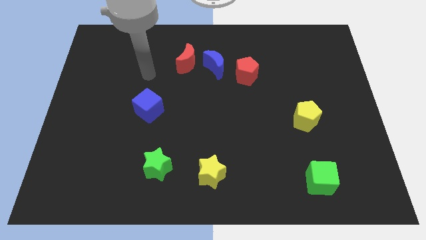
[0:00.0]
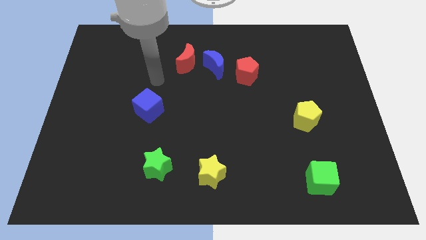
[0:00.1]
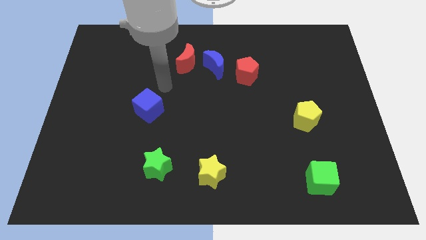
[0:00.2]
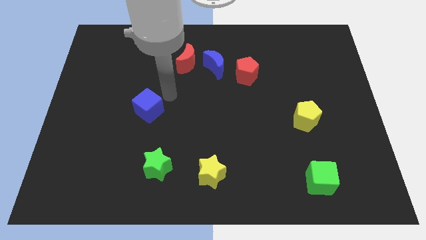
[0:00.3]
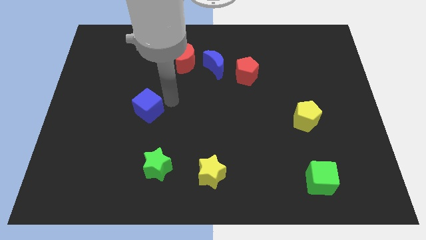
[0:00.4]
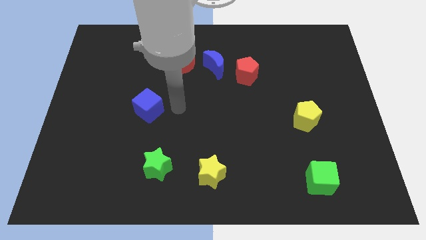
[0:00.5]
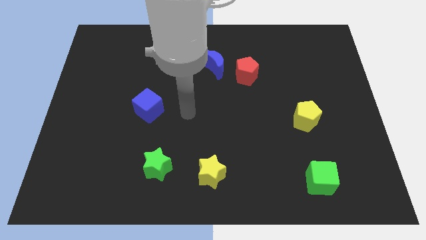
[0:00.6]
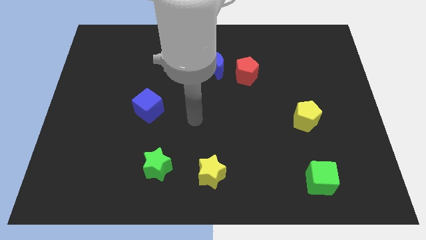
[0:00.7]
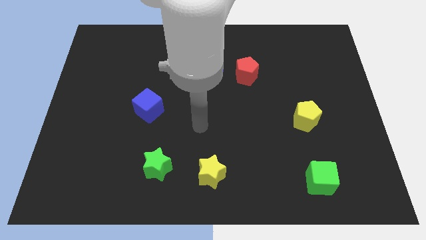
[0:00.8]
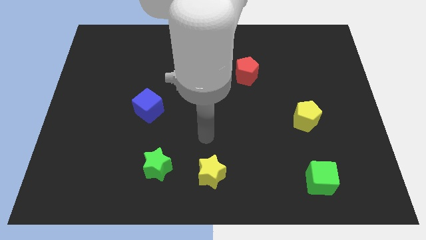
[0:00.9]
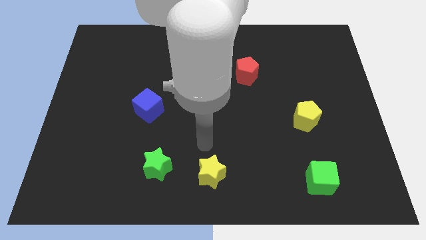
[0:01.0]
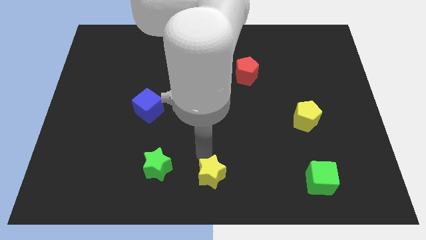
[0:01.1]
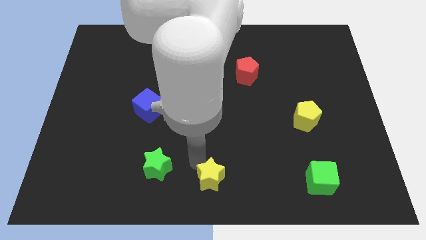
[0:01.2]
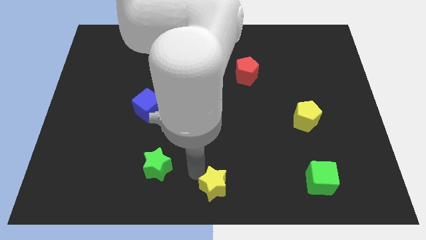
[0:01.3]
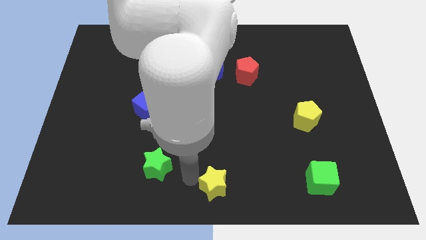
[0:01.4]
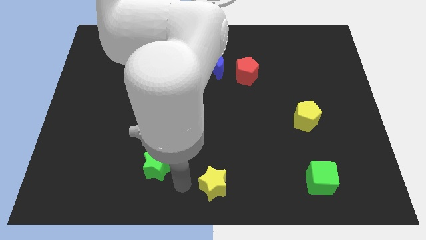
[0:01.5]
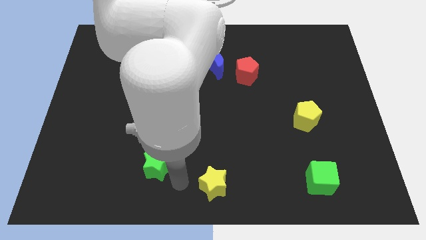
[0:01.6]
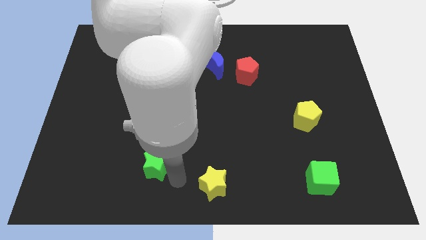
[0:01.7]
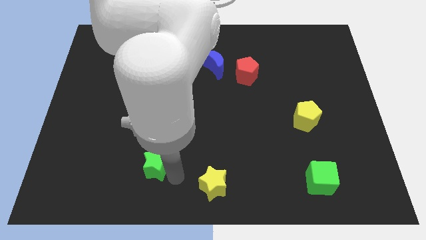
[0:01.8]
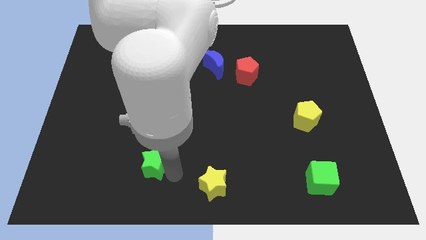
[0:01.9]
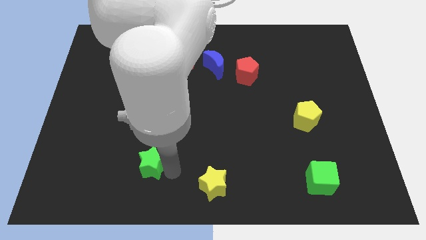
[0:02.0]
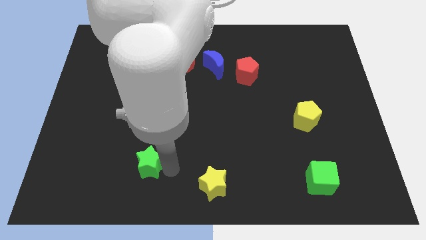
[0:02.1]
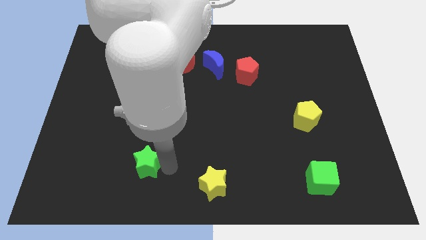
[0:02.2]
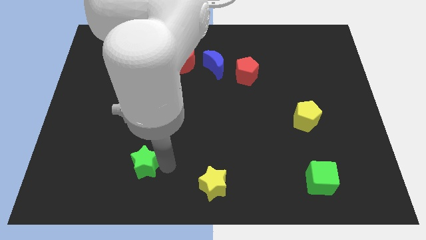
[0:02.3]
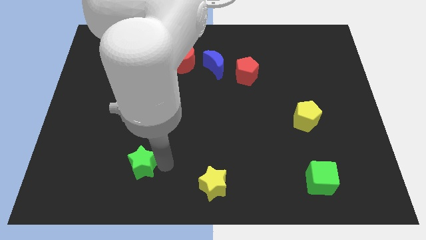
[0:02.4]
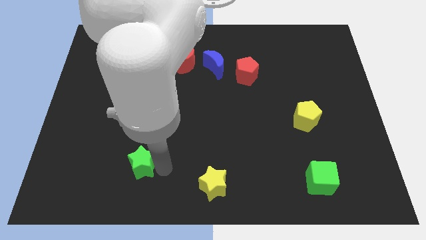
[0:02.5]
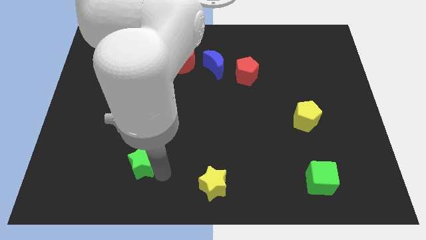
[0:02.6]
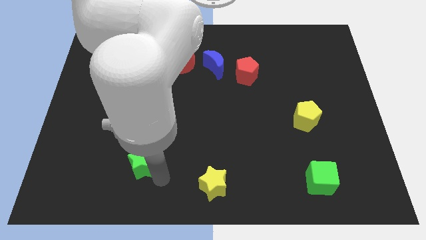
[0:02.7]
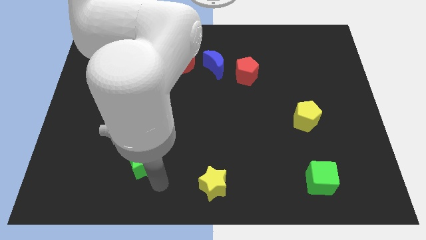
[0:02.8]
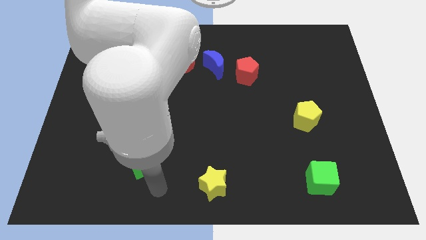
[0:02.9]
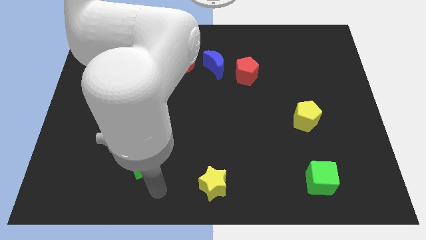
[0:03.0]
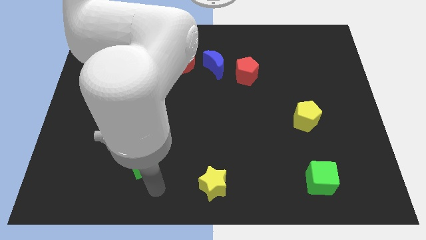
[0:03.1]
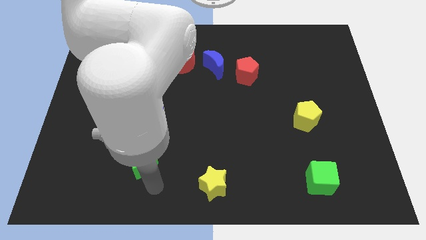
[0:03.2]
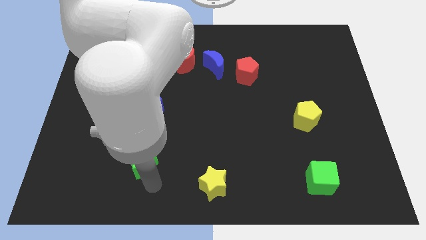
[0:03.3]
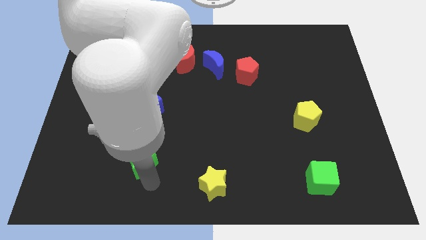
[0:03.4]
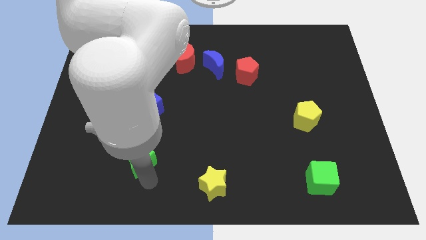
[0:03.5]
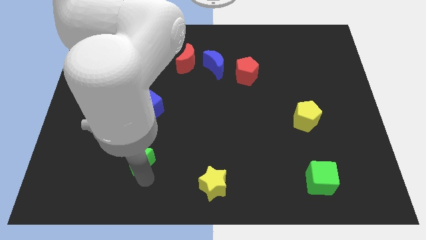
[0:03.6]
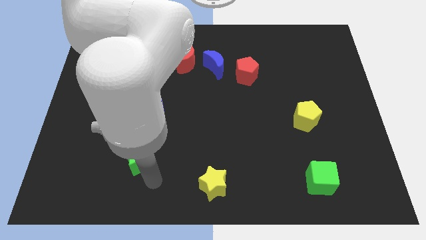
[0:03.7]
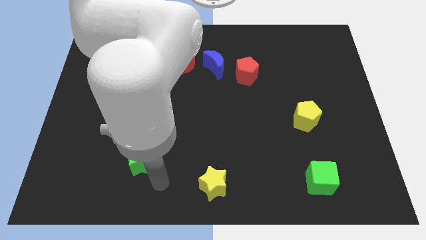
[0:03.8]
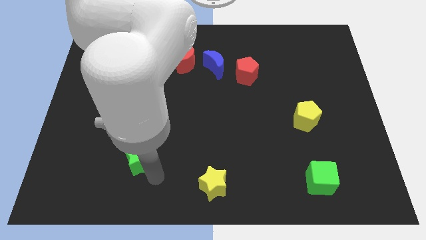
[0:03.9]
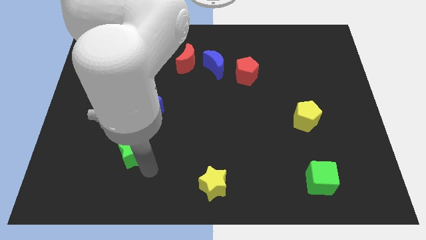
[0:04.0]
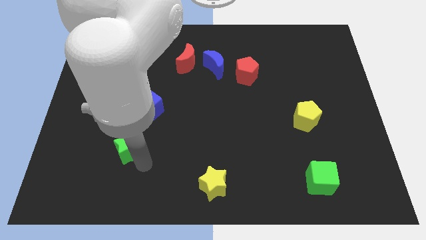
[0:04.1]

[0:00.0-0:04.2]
slightly slide the green star diagonally upwards and left

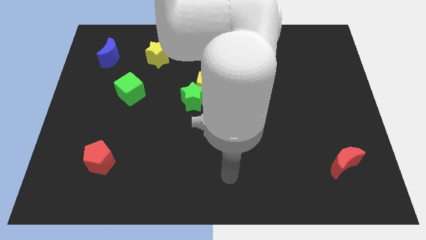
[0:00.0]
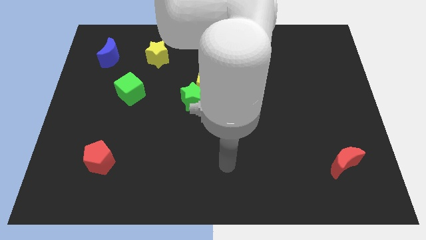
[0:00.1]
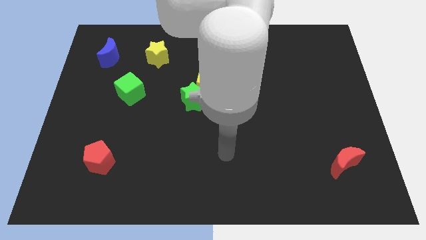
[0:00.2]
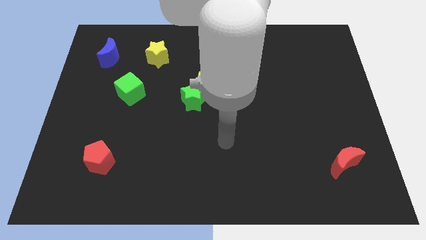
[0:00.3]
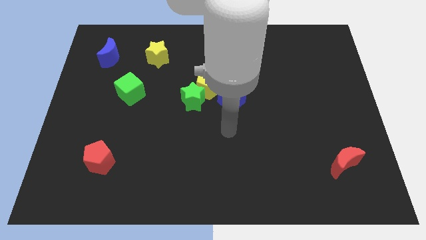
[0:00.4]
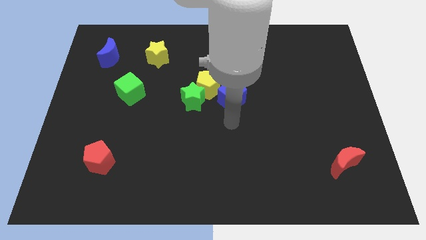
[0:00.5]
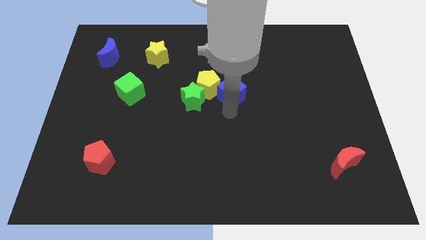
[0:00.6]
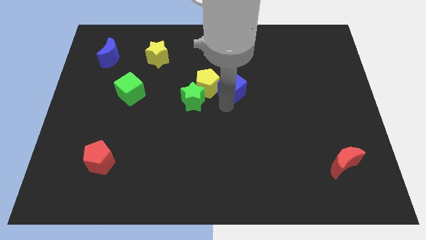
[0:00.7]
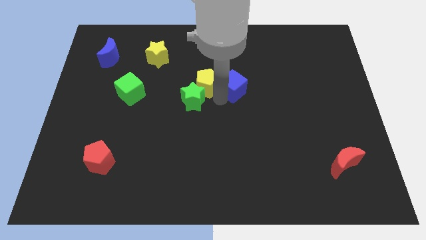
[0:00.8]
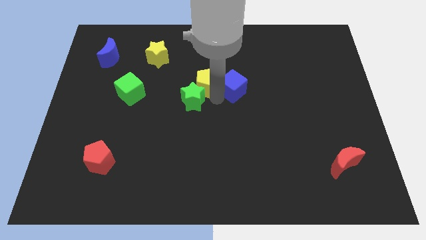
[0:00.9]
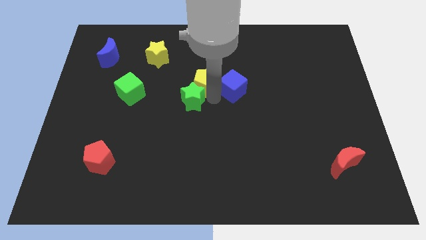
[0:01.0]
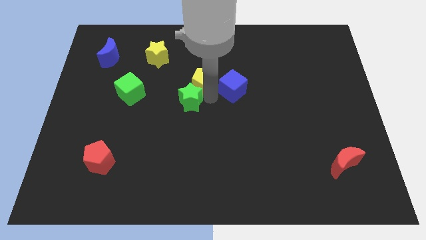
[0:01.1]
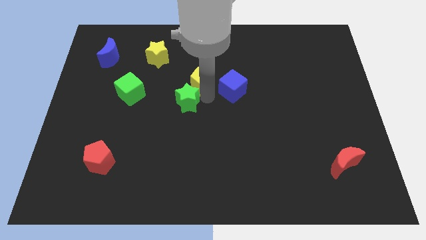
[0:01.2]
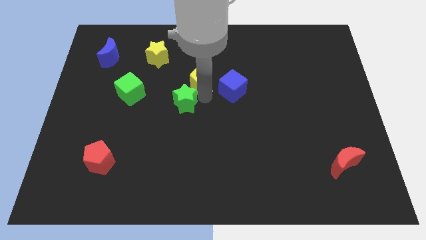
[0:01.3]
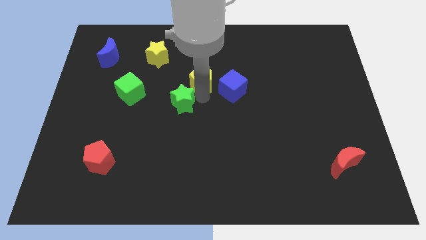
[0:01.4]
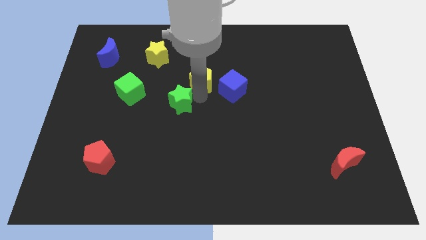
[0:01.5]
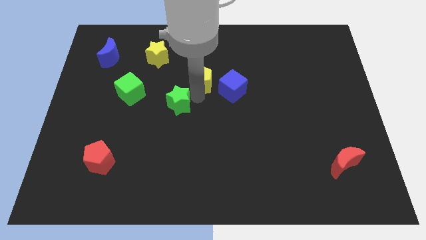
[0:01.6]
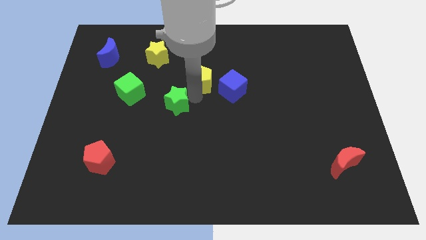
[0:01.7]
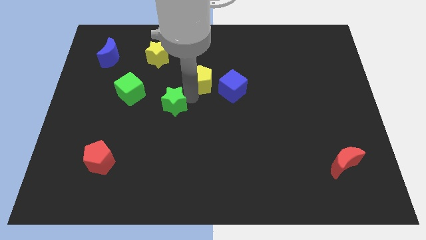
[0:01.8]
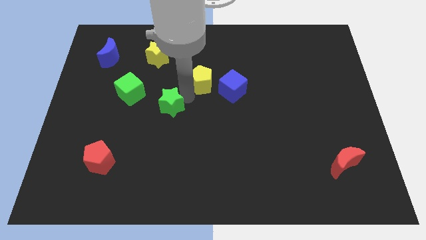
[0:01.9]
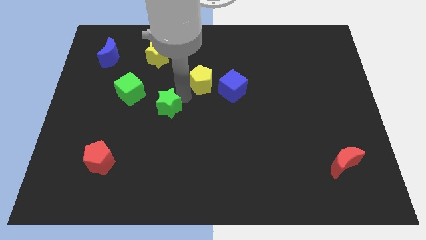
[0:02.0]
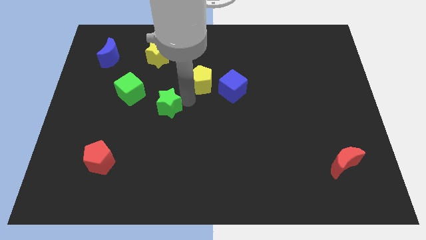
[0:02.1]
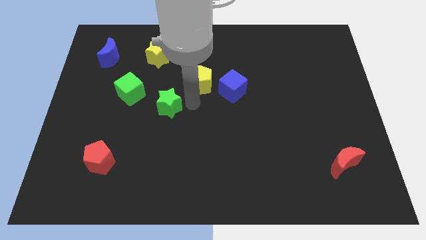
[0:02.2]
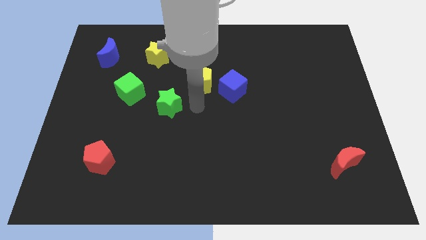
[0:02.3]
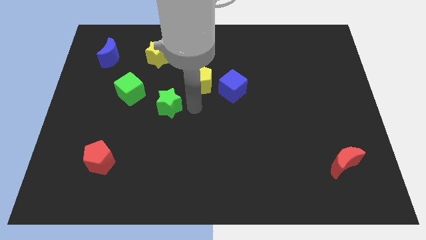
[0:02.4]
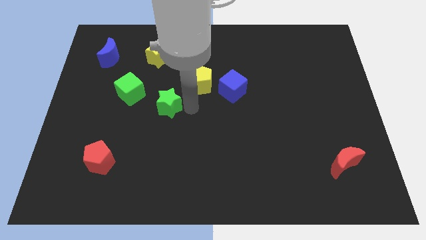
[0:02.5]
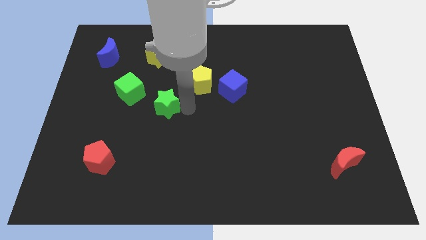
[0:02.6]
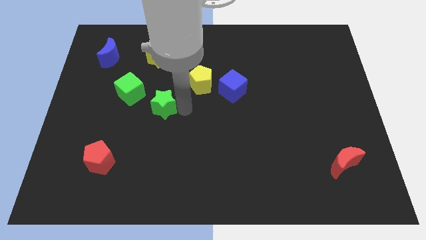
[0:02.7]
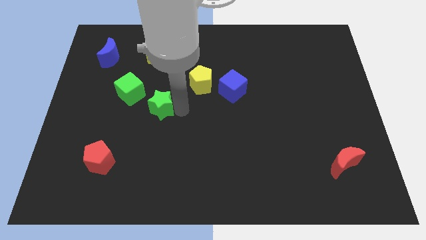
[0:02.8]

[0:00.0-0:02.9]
slightly move the green star to the left

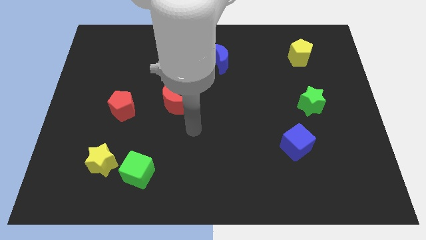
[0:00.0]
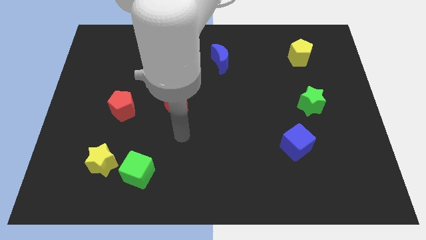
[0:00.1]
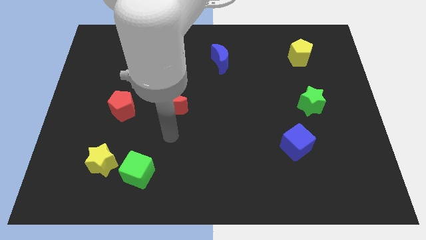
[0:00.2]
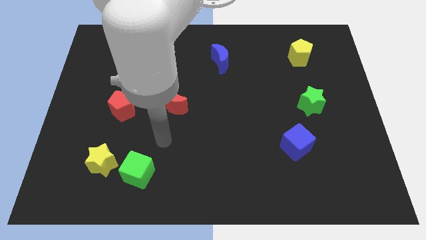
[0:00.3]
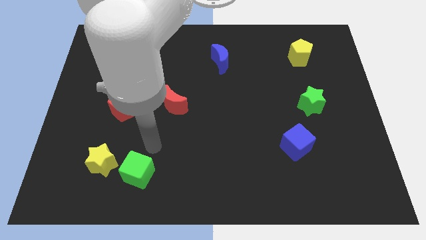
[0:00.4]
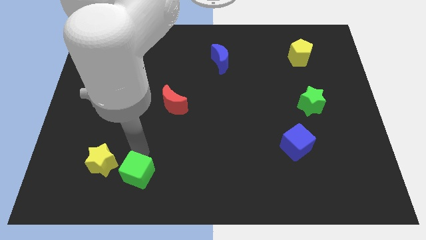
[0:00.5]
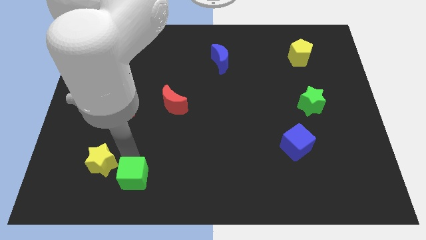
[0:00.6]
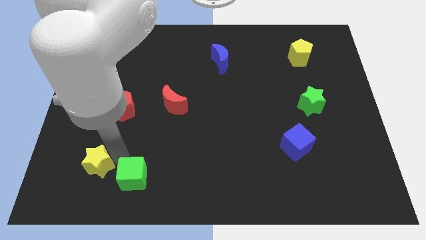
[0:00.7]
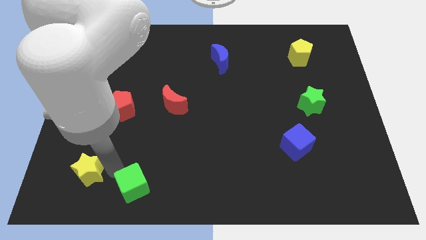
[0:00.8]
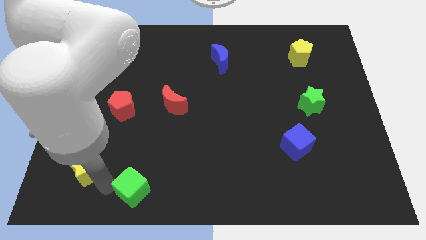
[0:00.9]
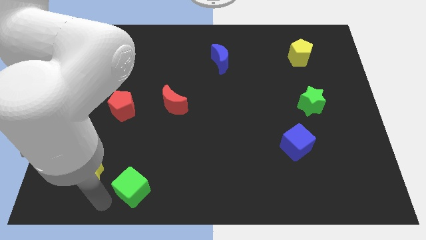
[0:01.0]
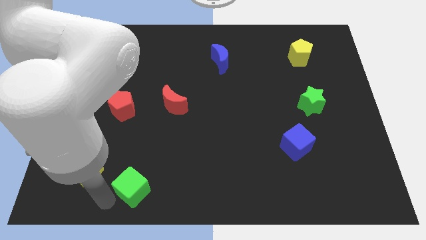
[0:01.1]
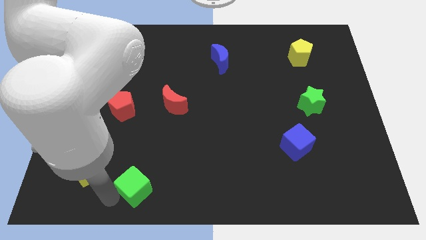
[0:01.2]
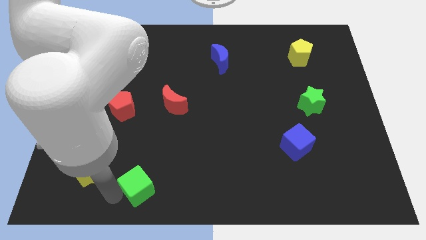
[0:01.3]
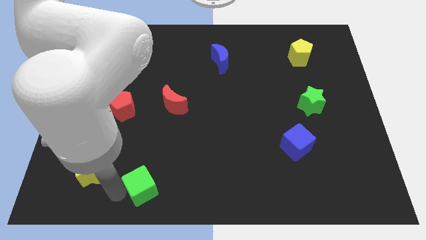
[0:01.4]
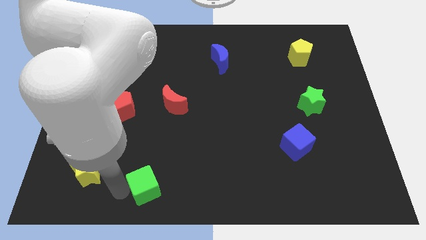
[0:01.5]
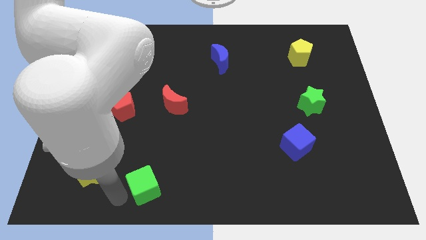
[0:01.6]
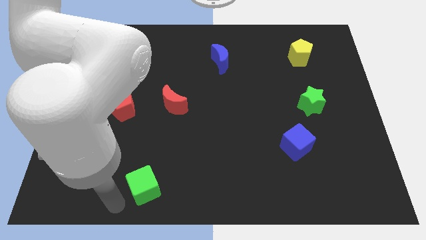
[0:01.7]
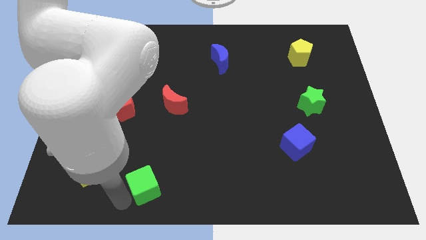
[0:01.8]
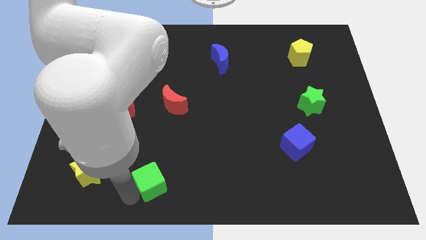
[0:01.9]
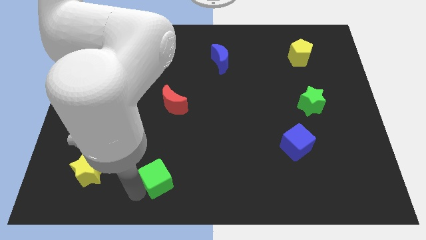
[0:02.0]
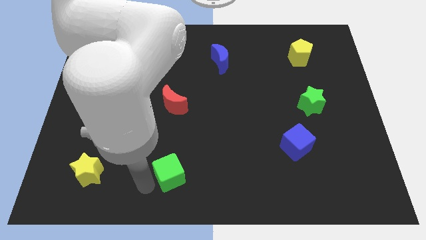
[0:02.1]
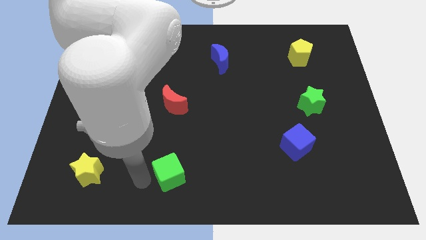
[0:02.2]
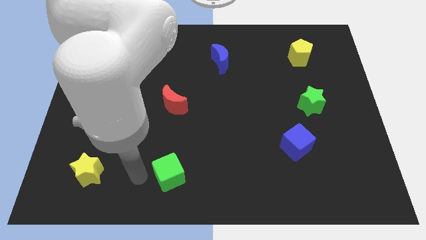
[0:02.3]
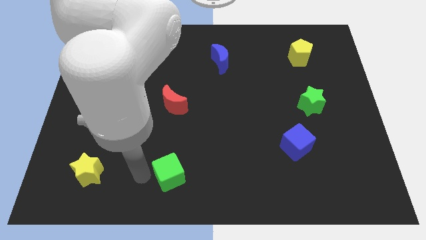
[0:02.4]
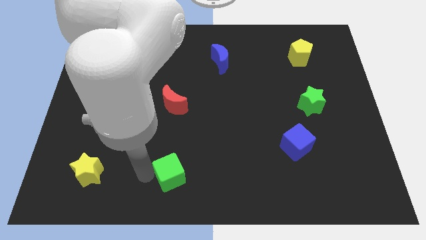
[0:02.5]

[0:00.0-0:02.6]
slide the green cube right slightly
